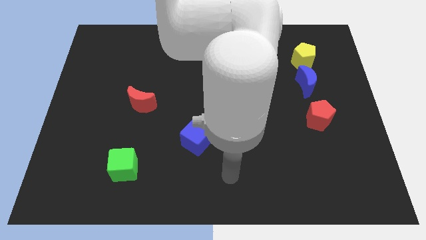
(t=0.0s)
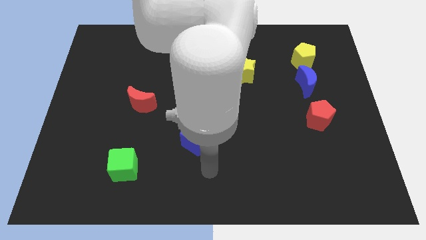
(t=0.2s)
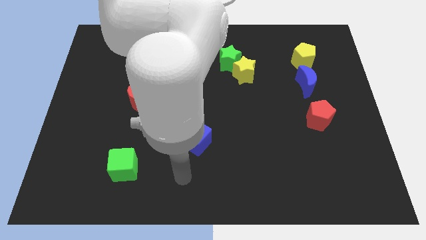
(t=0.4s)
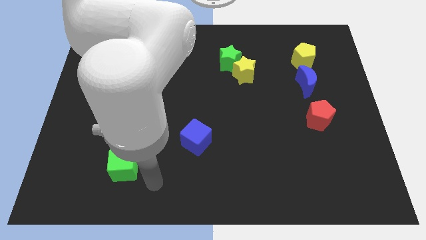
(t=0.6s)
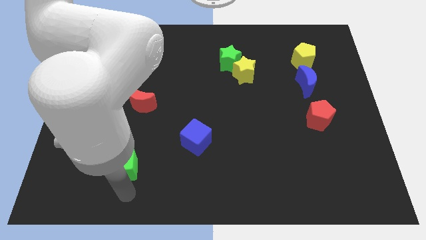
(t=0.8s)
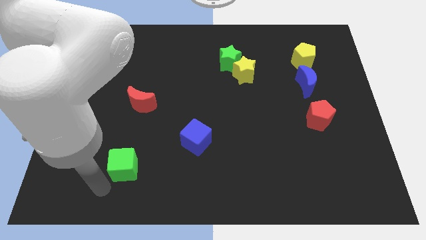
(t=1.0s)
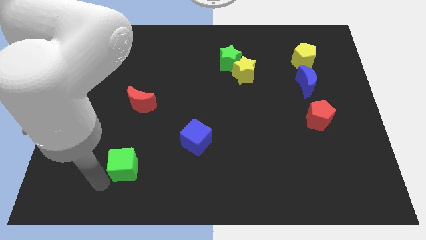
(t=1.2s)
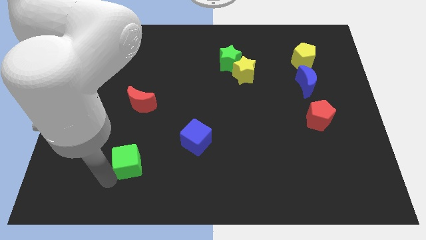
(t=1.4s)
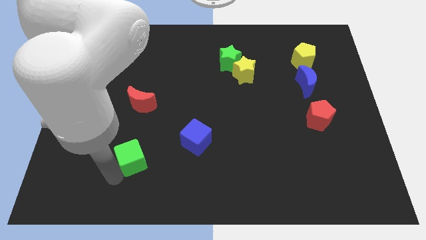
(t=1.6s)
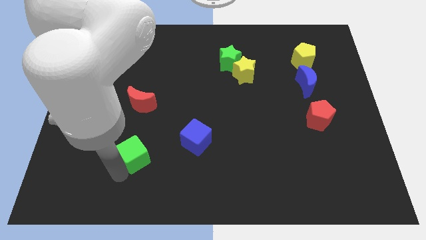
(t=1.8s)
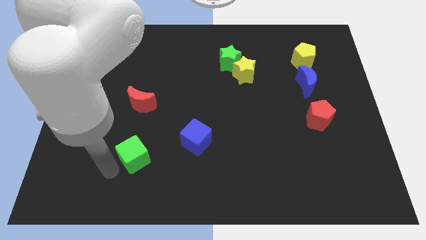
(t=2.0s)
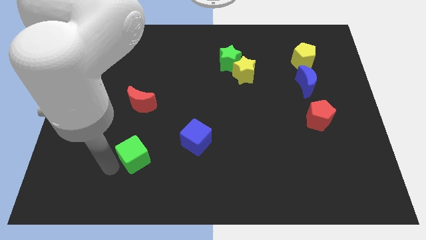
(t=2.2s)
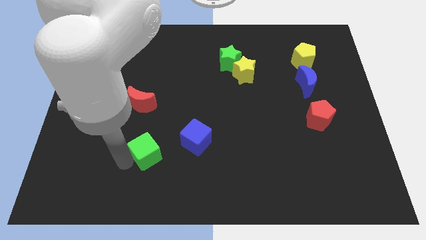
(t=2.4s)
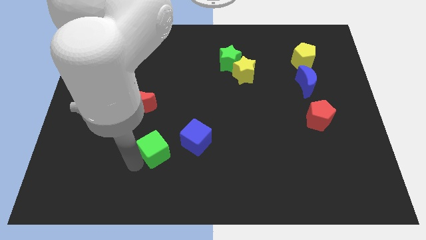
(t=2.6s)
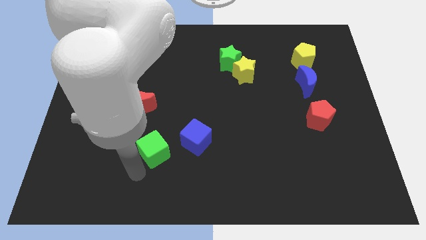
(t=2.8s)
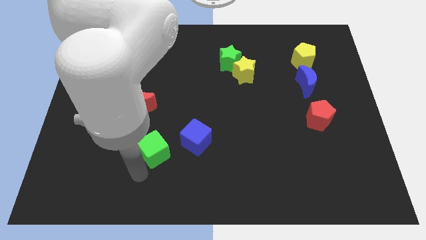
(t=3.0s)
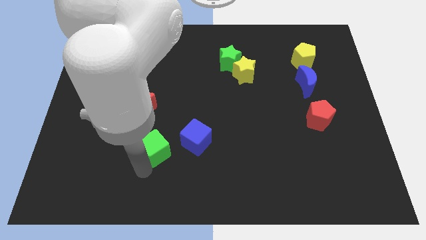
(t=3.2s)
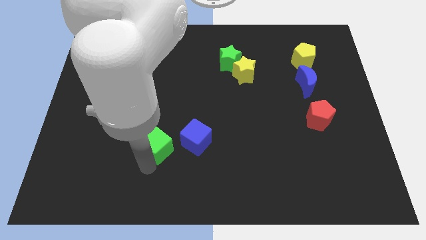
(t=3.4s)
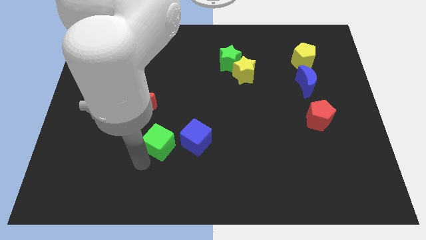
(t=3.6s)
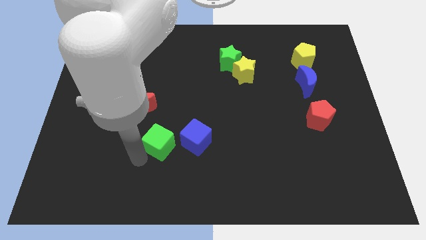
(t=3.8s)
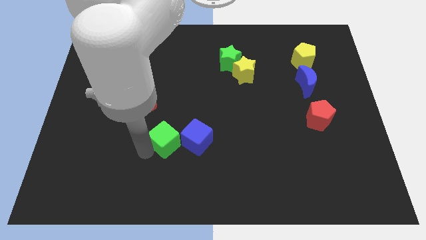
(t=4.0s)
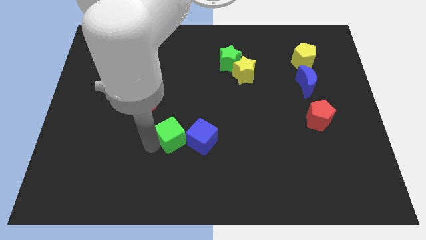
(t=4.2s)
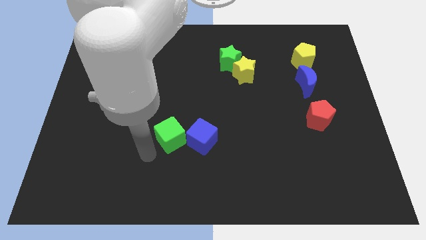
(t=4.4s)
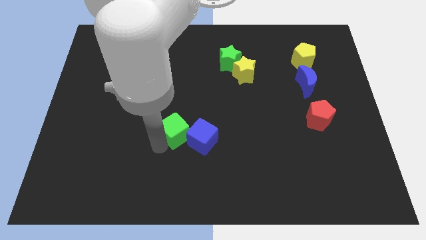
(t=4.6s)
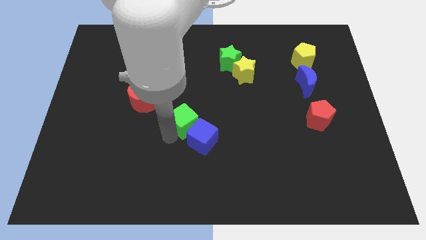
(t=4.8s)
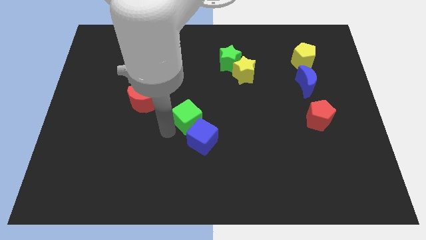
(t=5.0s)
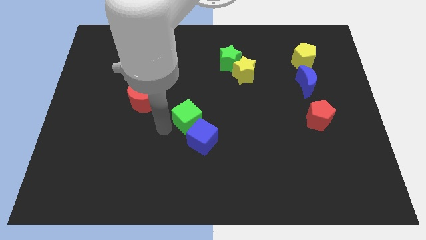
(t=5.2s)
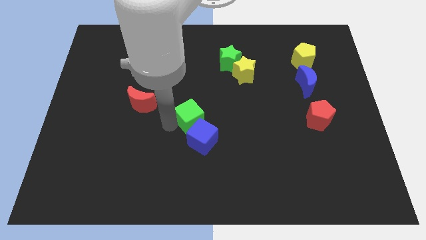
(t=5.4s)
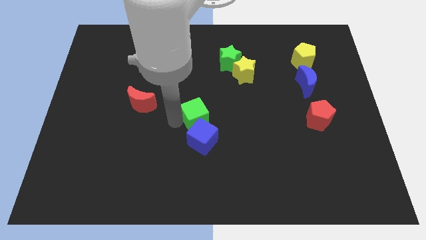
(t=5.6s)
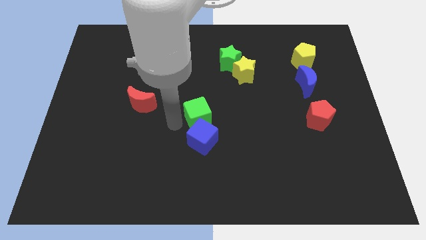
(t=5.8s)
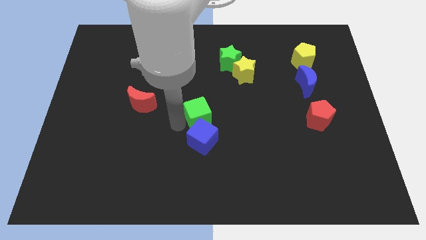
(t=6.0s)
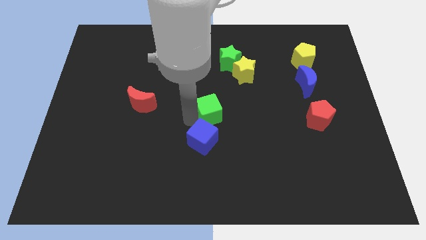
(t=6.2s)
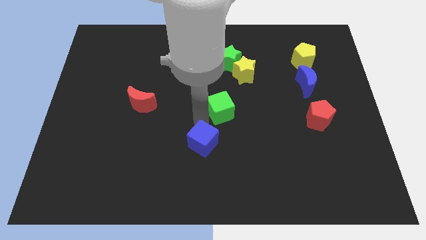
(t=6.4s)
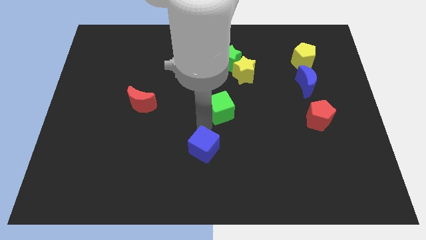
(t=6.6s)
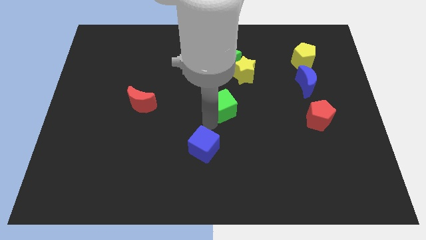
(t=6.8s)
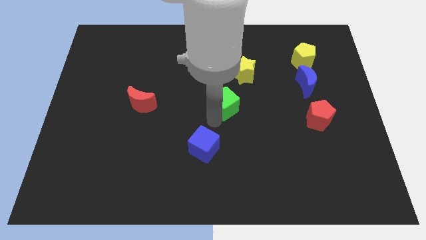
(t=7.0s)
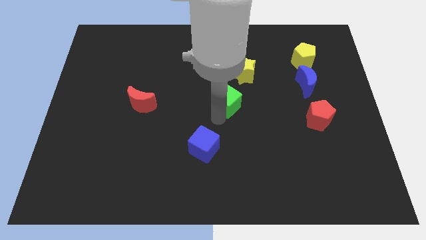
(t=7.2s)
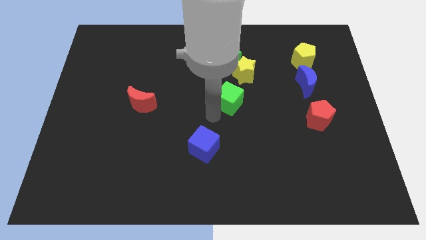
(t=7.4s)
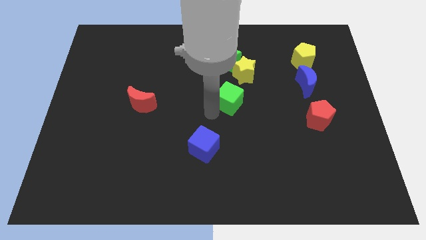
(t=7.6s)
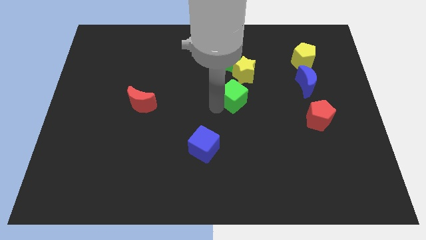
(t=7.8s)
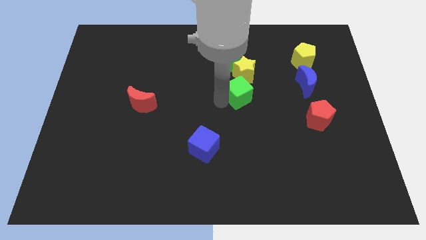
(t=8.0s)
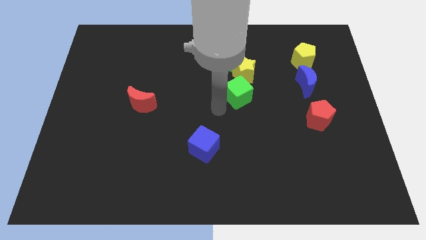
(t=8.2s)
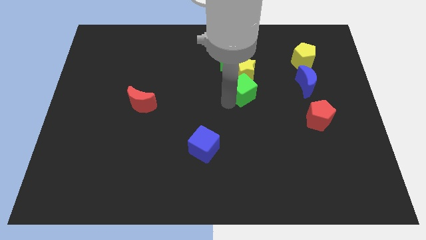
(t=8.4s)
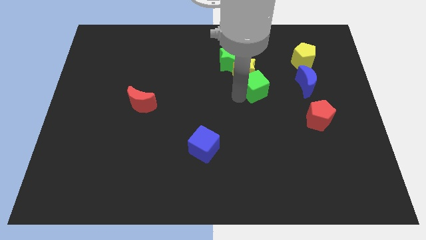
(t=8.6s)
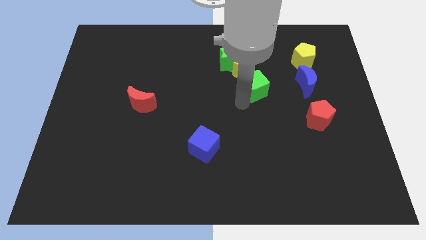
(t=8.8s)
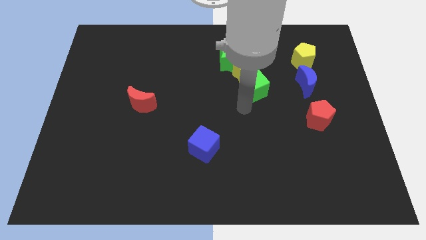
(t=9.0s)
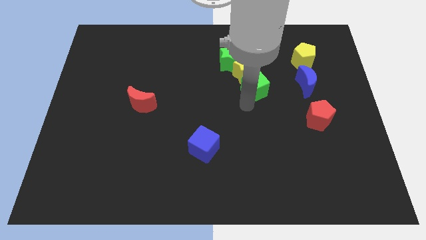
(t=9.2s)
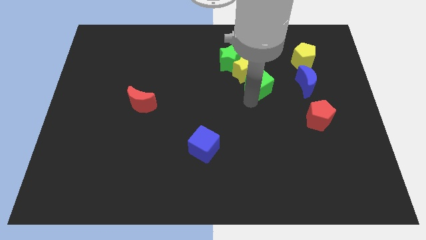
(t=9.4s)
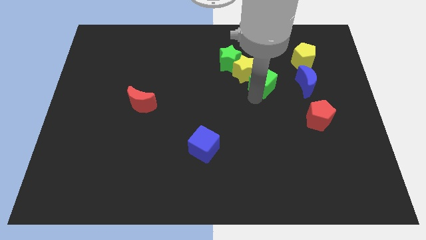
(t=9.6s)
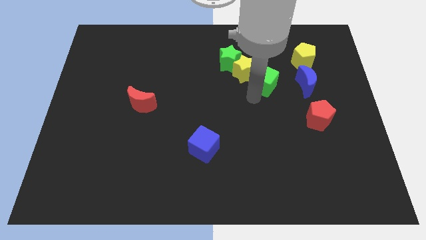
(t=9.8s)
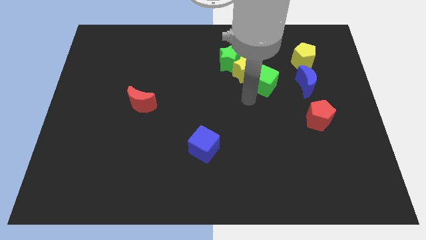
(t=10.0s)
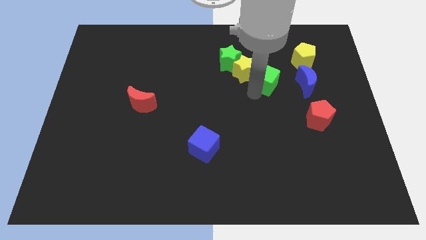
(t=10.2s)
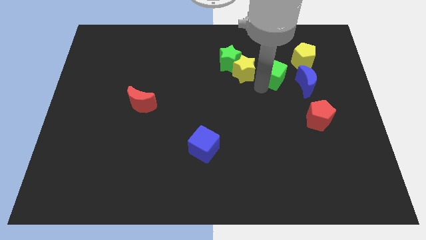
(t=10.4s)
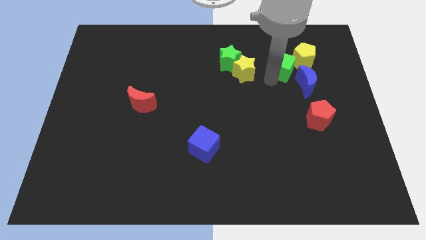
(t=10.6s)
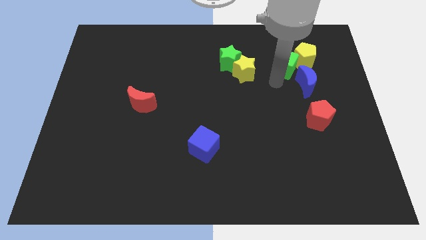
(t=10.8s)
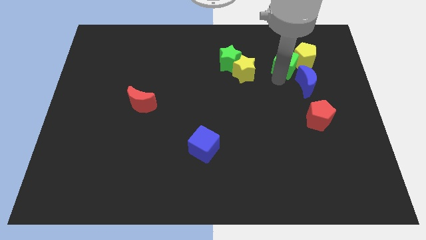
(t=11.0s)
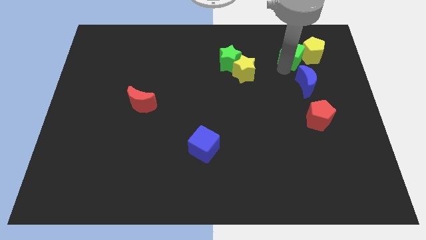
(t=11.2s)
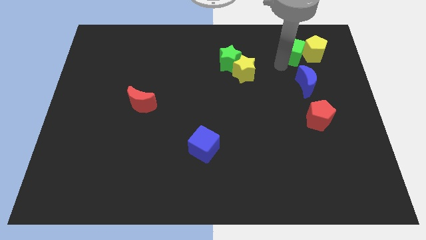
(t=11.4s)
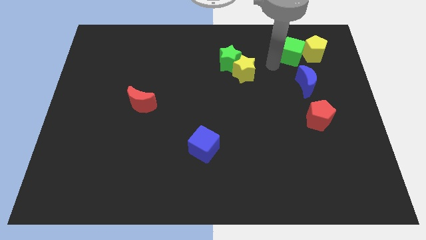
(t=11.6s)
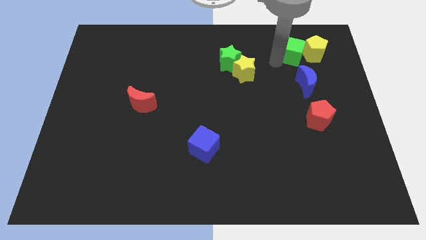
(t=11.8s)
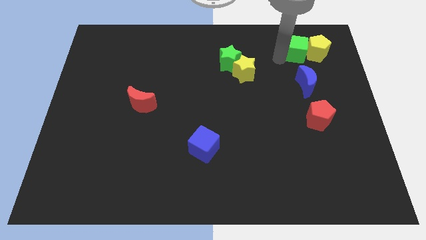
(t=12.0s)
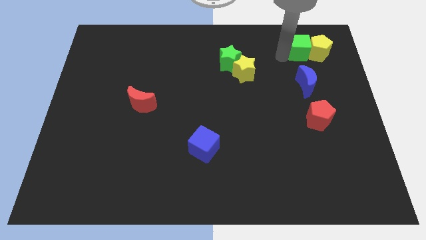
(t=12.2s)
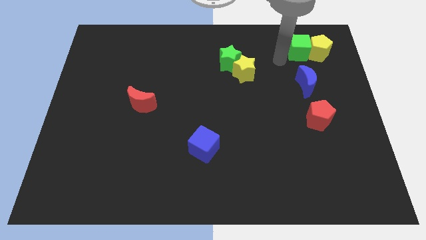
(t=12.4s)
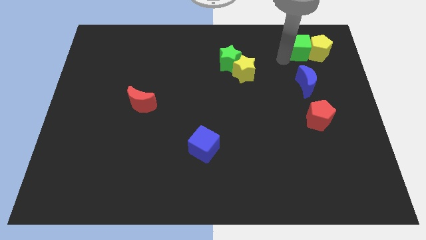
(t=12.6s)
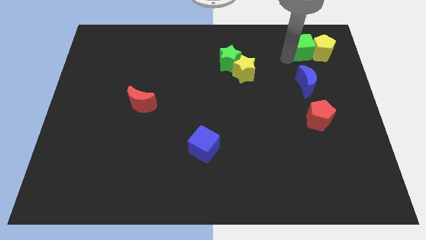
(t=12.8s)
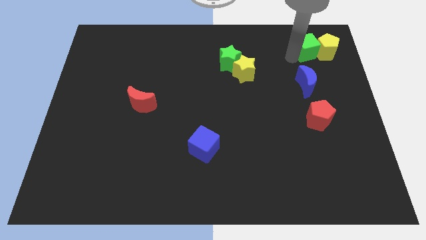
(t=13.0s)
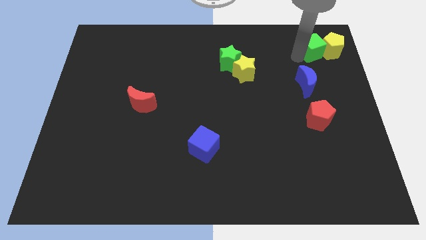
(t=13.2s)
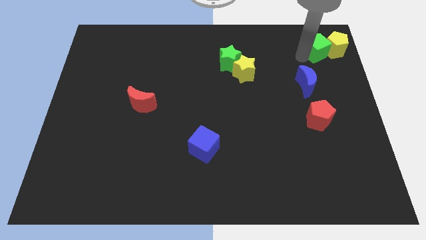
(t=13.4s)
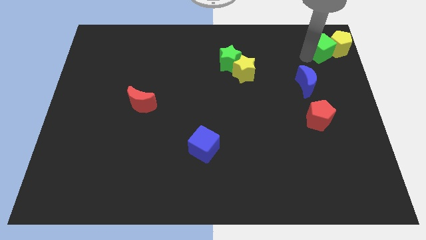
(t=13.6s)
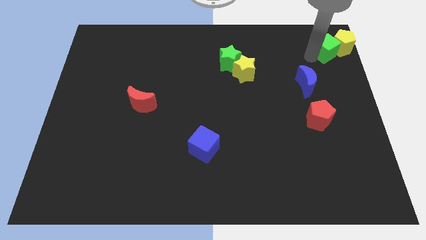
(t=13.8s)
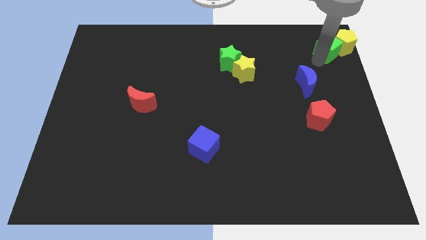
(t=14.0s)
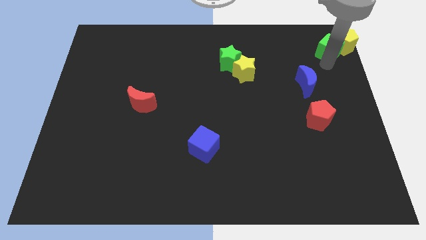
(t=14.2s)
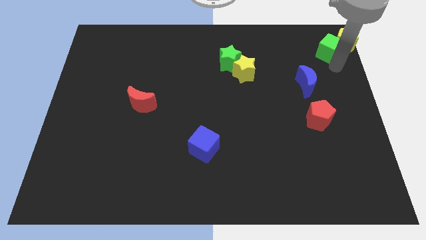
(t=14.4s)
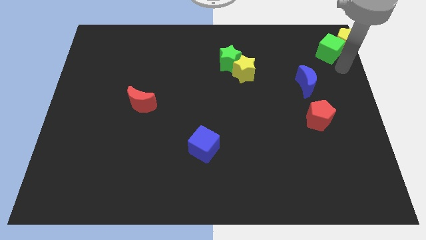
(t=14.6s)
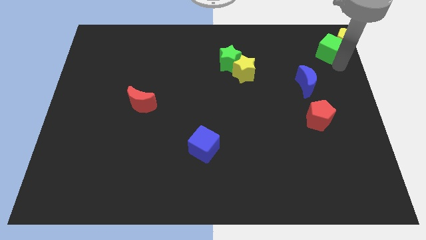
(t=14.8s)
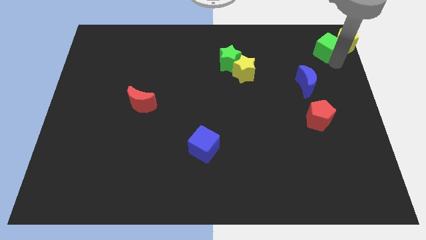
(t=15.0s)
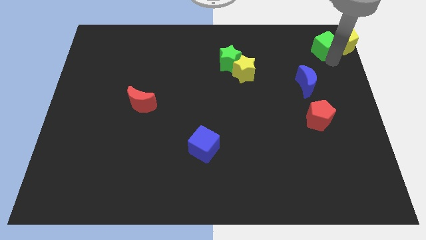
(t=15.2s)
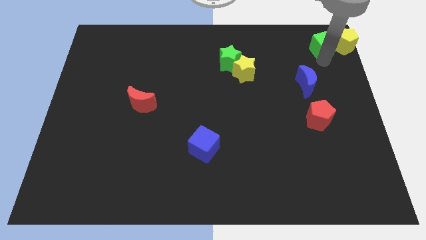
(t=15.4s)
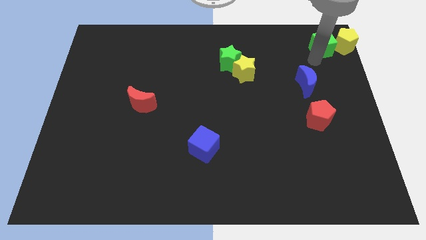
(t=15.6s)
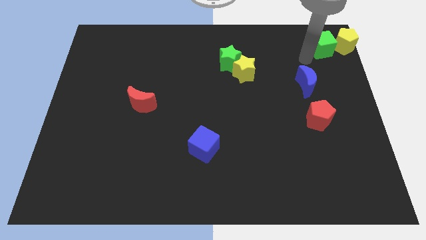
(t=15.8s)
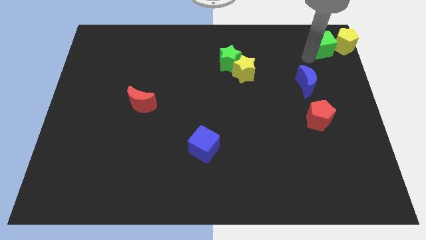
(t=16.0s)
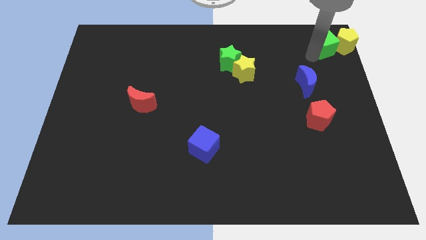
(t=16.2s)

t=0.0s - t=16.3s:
move the green cube to the top right corner

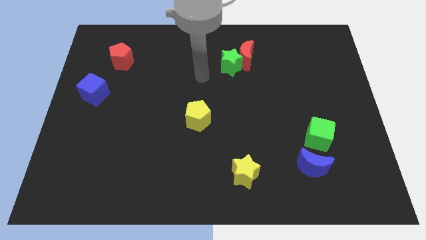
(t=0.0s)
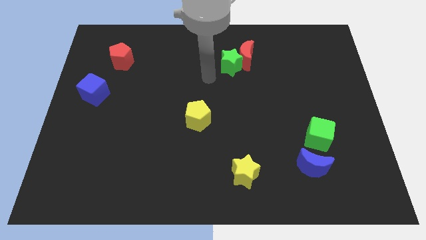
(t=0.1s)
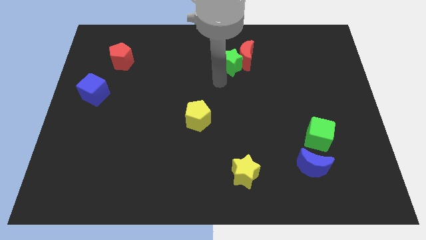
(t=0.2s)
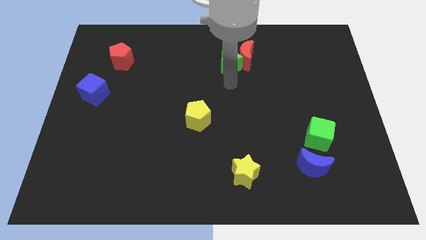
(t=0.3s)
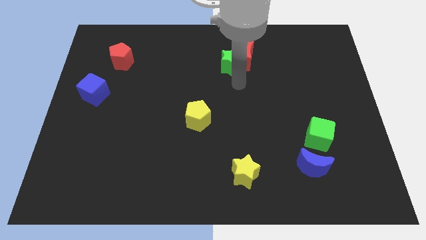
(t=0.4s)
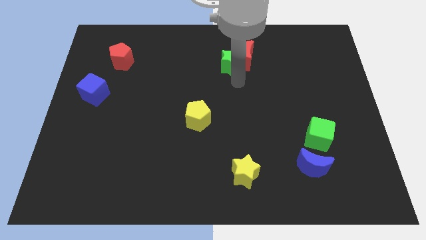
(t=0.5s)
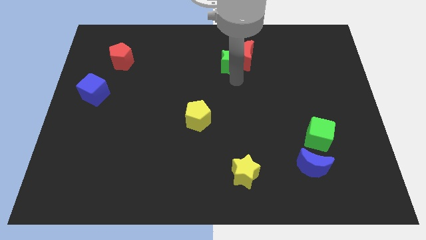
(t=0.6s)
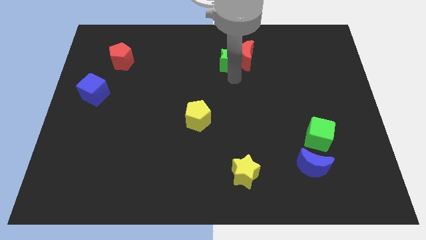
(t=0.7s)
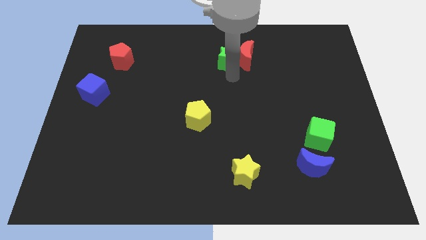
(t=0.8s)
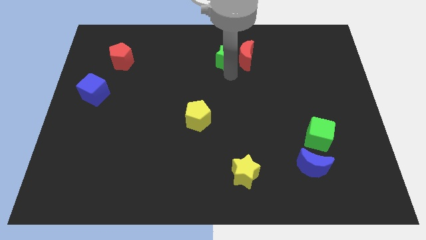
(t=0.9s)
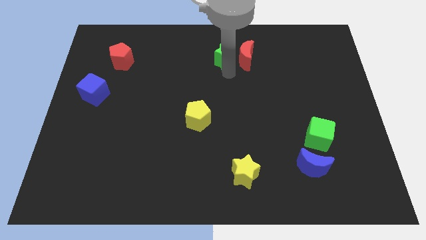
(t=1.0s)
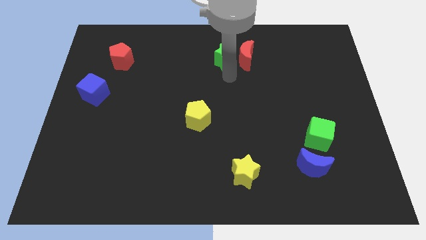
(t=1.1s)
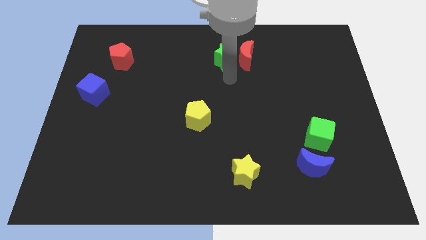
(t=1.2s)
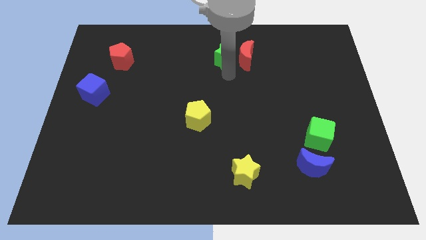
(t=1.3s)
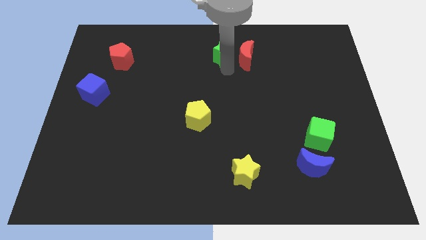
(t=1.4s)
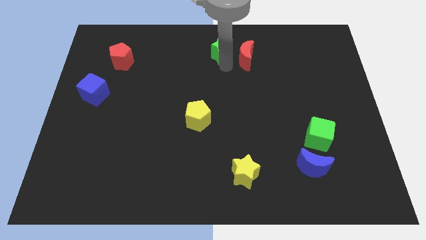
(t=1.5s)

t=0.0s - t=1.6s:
move the green star to the top side
